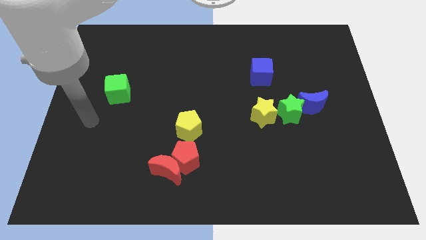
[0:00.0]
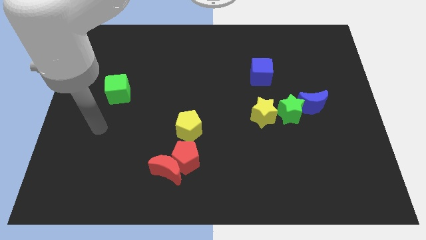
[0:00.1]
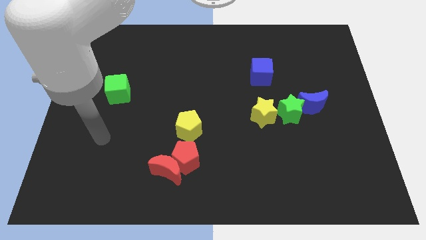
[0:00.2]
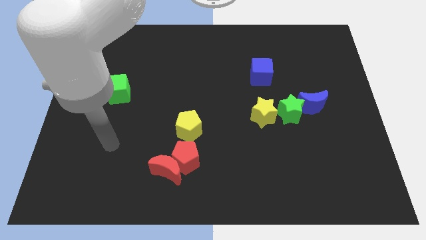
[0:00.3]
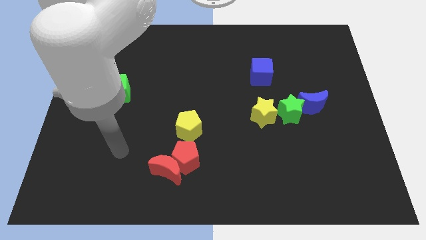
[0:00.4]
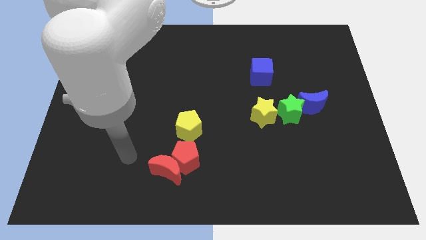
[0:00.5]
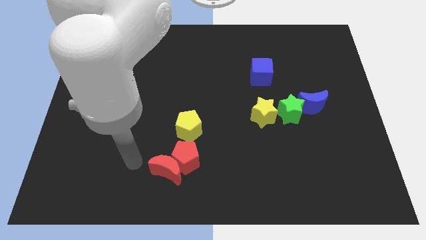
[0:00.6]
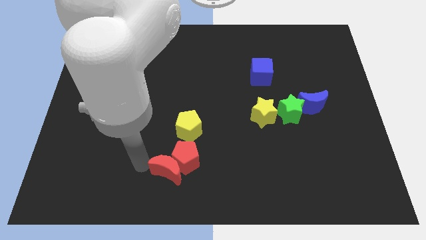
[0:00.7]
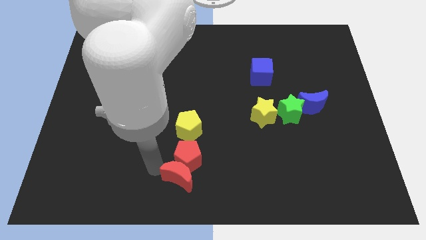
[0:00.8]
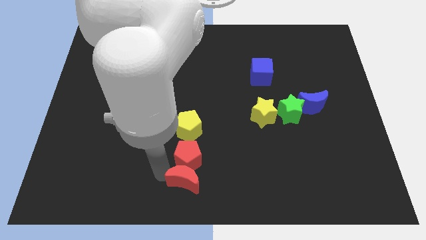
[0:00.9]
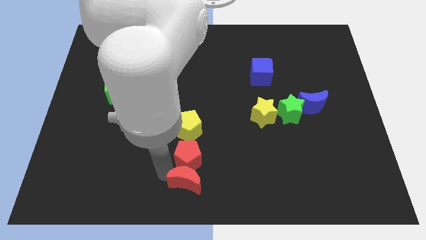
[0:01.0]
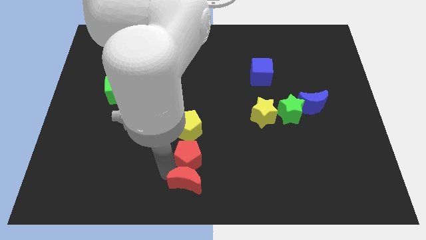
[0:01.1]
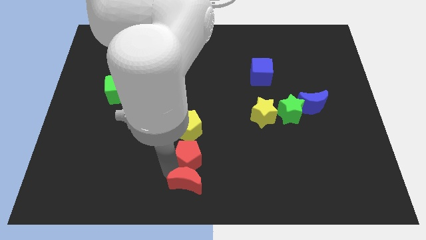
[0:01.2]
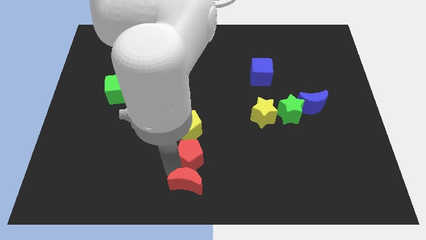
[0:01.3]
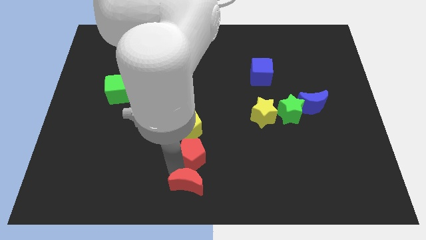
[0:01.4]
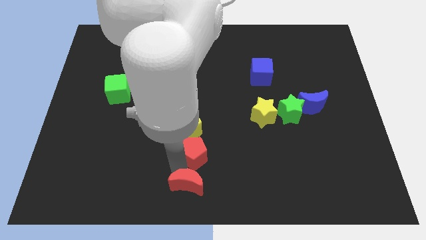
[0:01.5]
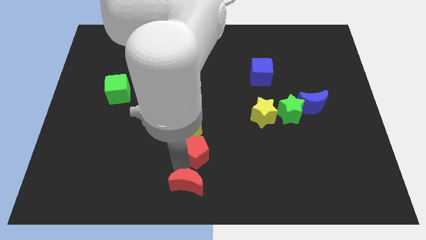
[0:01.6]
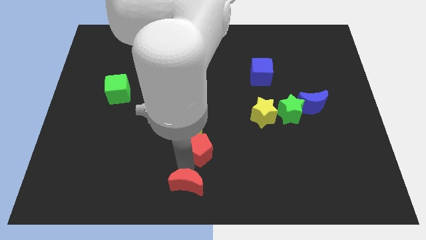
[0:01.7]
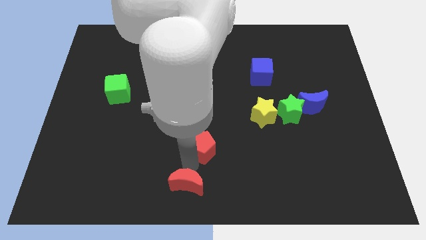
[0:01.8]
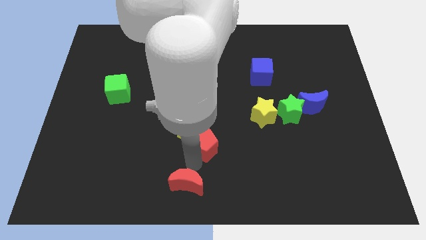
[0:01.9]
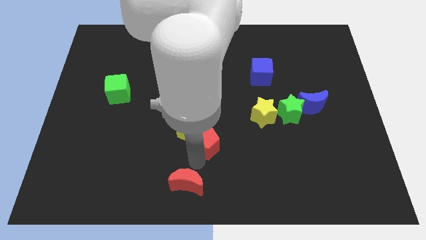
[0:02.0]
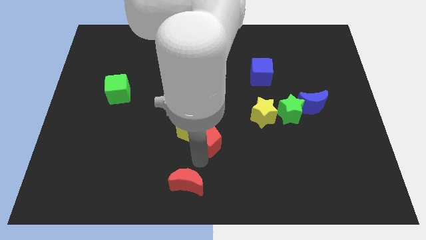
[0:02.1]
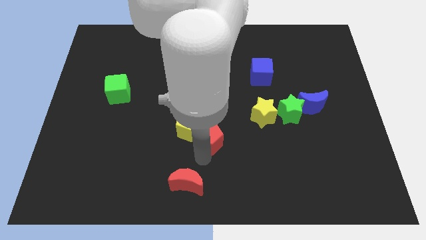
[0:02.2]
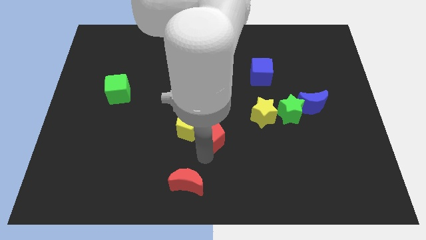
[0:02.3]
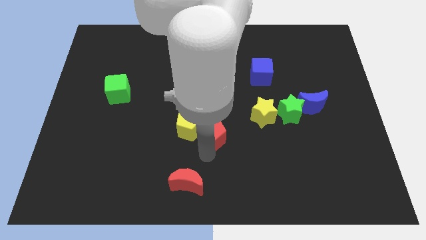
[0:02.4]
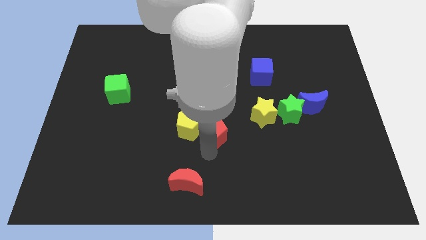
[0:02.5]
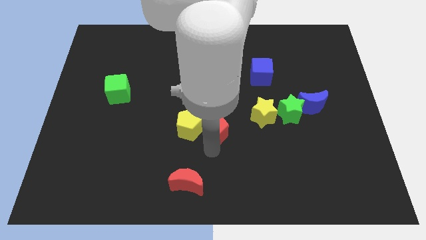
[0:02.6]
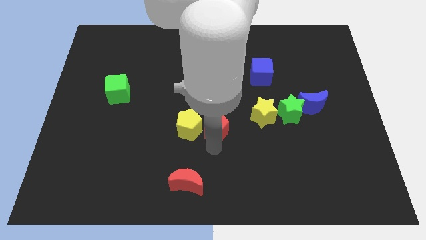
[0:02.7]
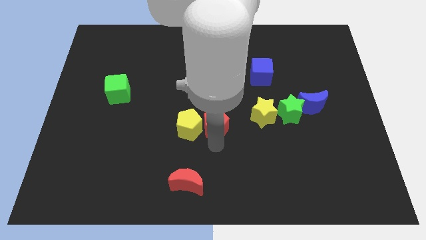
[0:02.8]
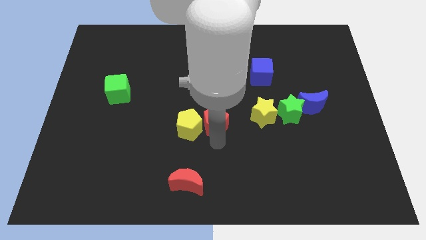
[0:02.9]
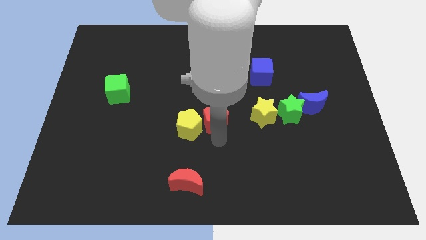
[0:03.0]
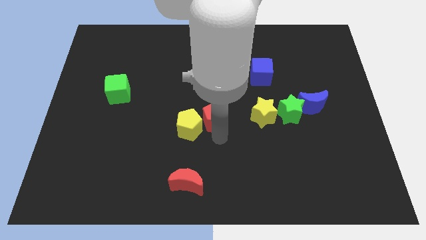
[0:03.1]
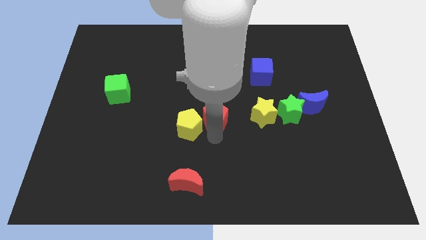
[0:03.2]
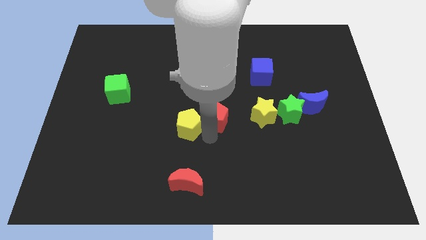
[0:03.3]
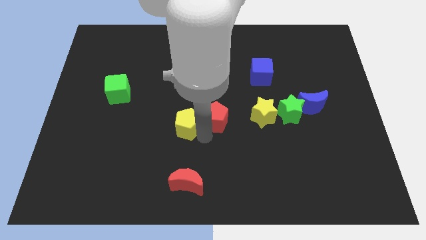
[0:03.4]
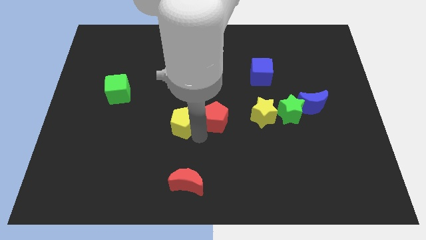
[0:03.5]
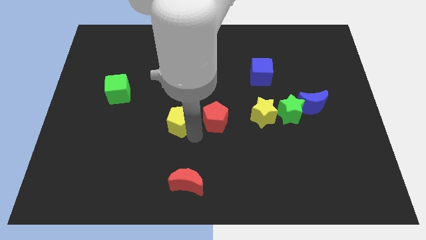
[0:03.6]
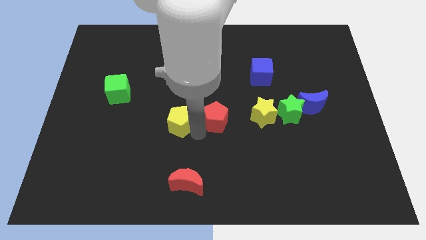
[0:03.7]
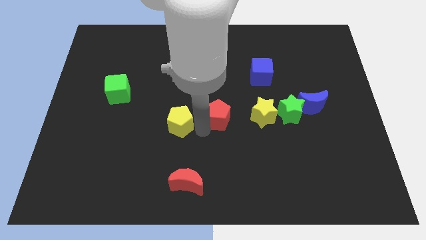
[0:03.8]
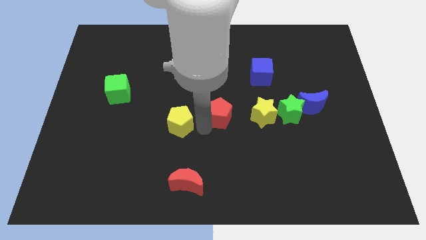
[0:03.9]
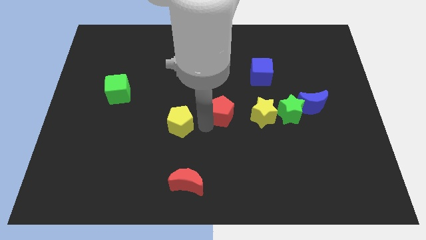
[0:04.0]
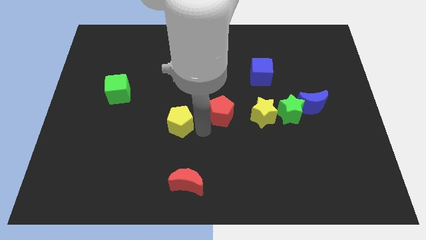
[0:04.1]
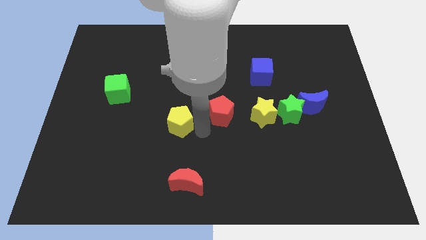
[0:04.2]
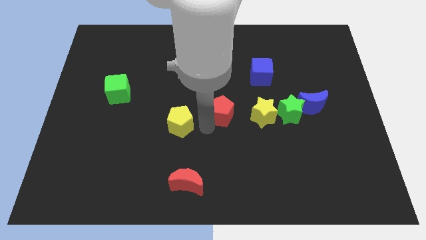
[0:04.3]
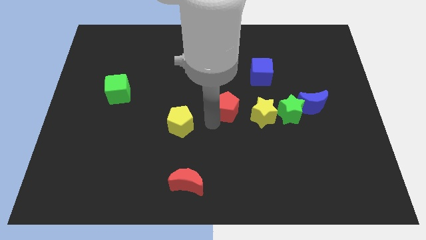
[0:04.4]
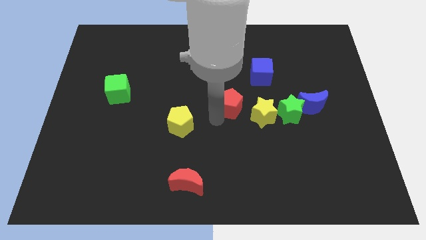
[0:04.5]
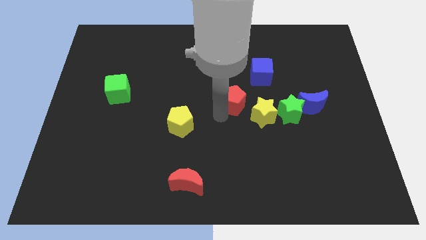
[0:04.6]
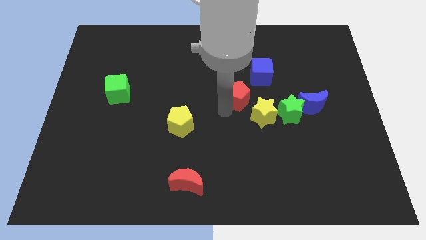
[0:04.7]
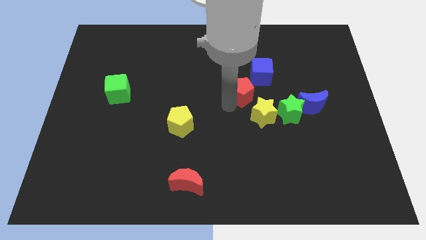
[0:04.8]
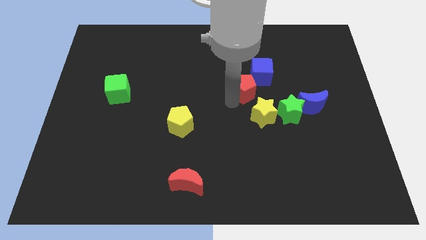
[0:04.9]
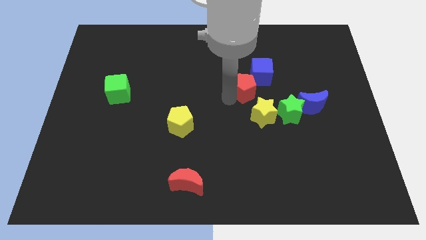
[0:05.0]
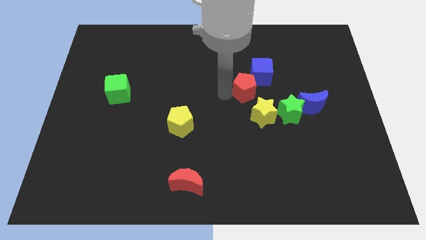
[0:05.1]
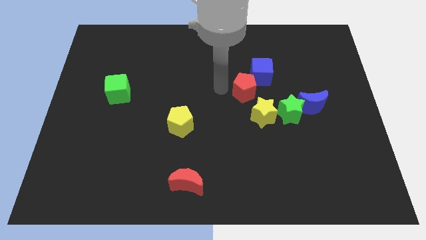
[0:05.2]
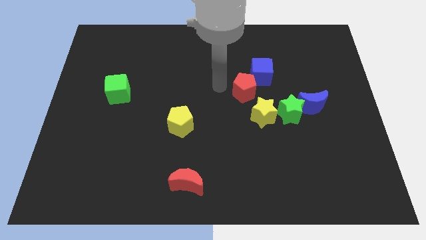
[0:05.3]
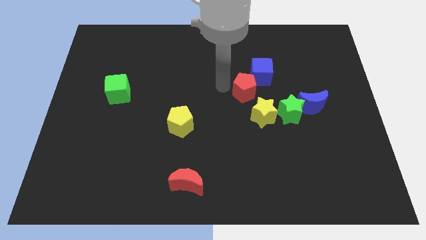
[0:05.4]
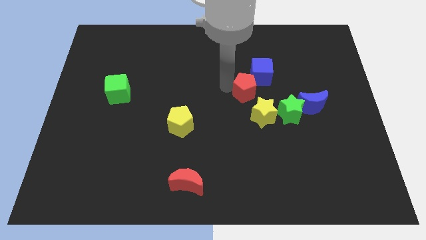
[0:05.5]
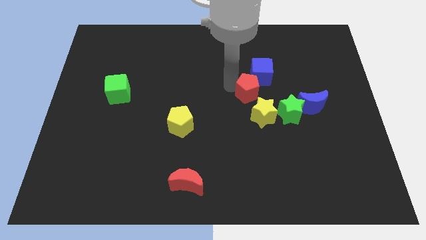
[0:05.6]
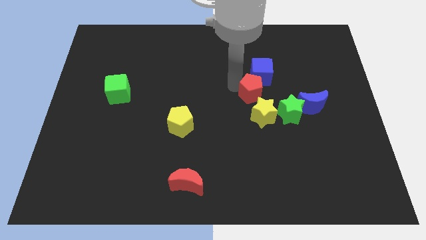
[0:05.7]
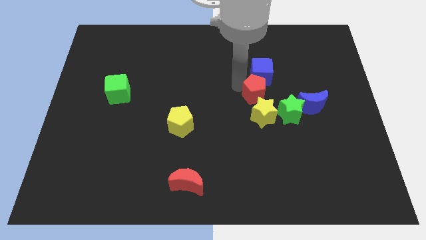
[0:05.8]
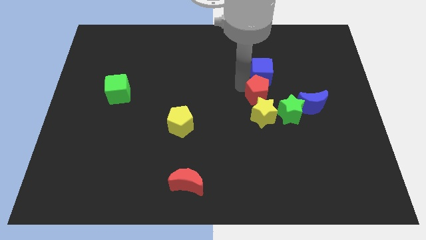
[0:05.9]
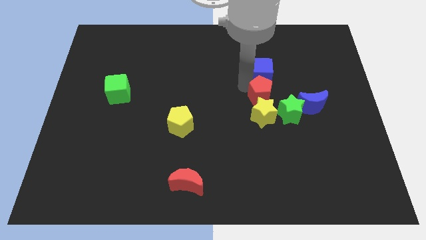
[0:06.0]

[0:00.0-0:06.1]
move the red pentagon to the top right of the yellow star
